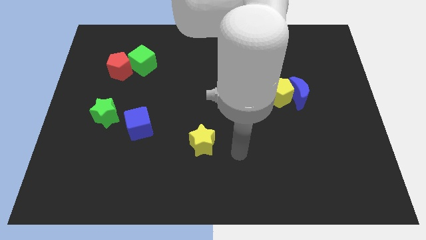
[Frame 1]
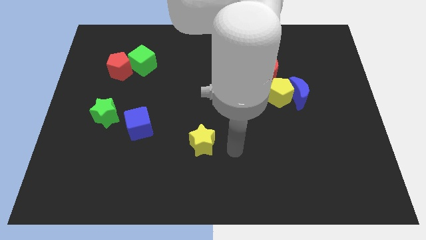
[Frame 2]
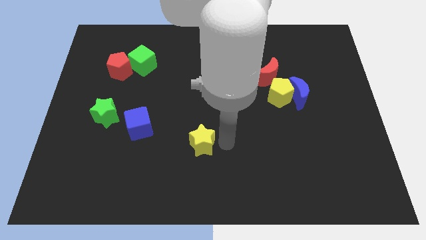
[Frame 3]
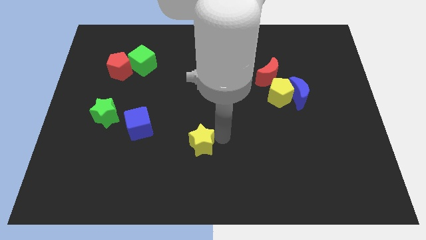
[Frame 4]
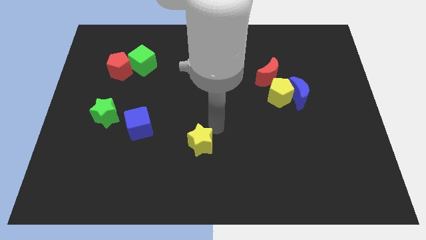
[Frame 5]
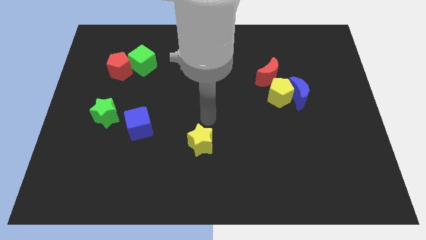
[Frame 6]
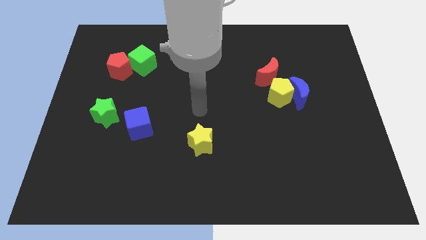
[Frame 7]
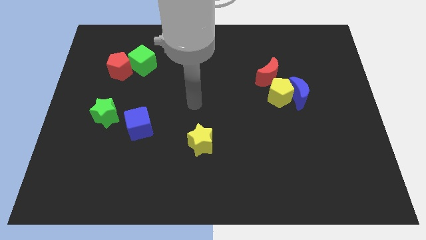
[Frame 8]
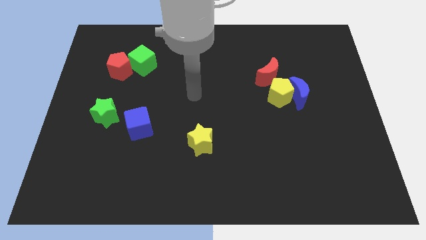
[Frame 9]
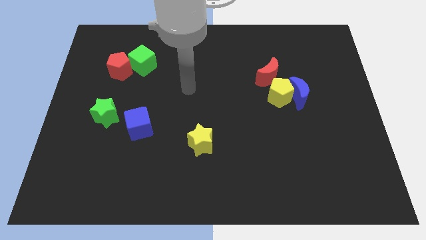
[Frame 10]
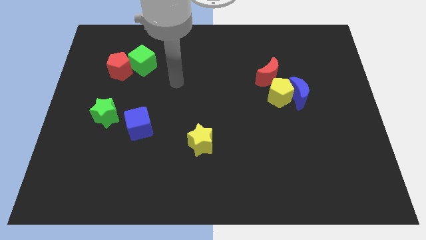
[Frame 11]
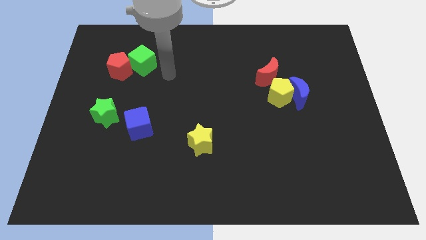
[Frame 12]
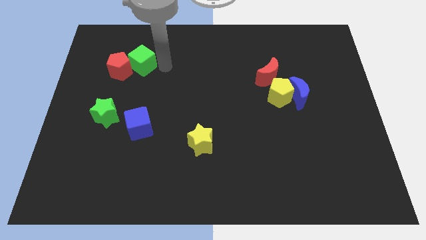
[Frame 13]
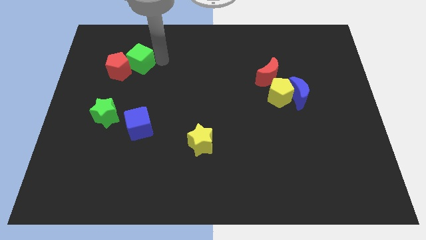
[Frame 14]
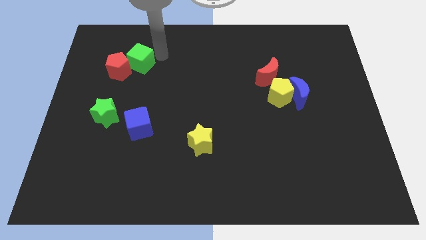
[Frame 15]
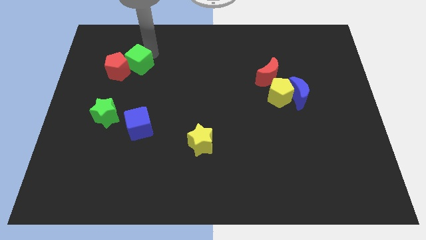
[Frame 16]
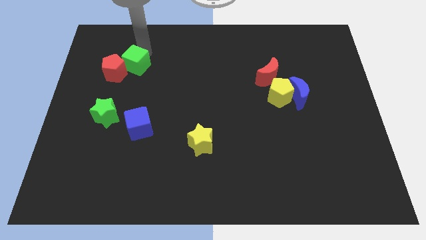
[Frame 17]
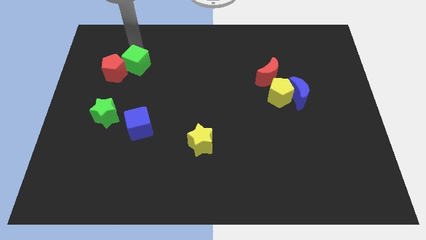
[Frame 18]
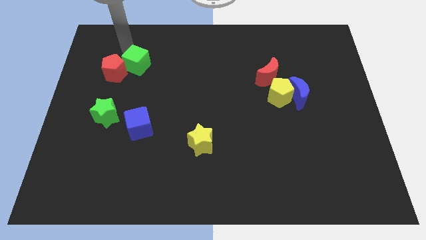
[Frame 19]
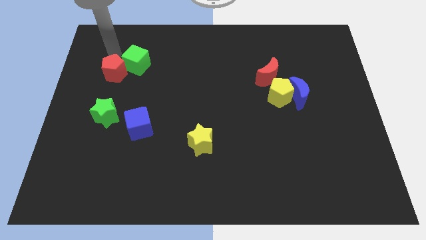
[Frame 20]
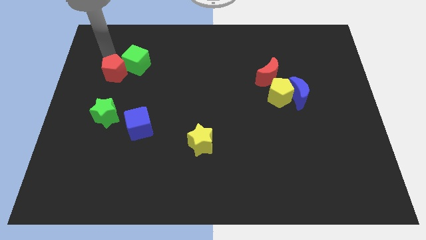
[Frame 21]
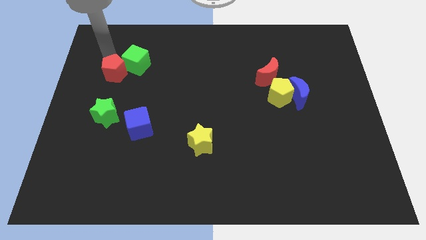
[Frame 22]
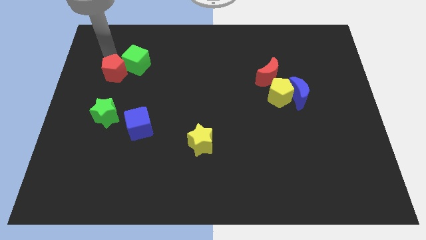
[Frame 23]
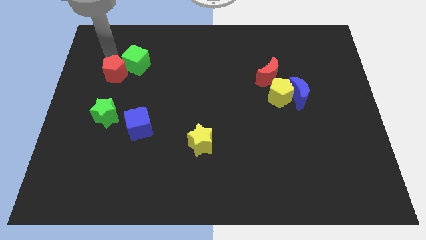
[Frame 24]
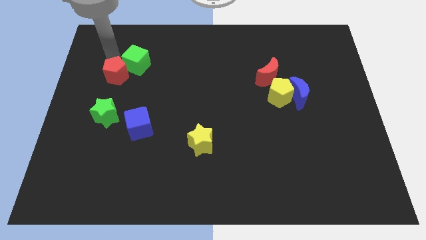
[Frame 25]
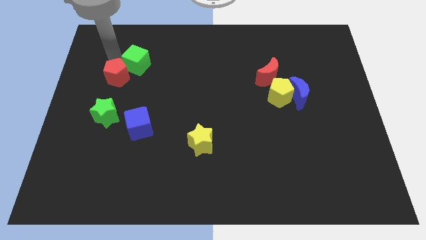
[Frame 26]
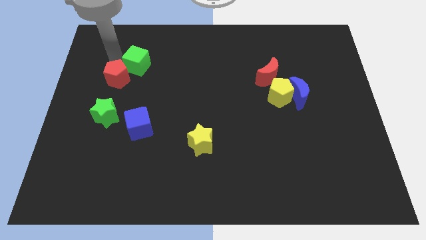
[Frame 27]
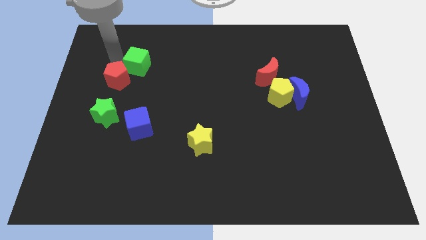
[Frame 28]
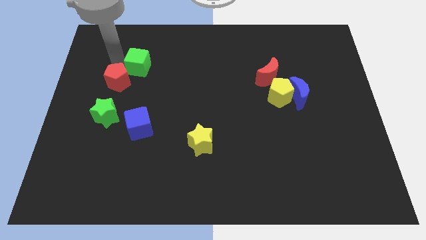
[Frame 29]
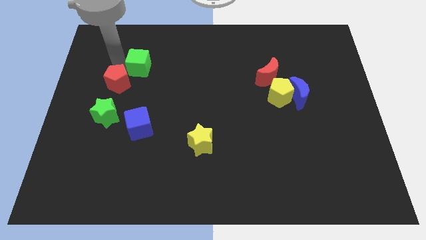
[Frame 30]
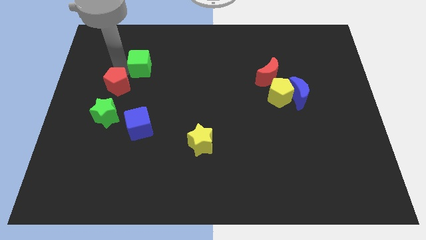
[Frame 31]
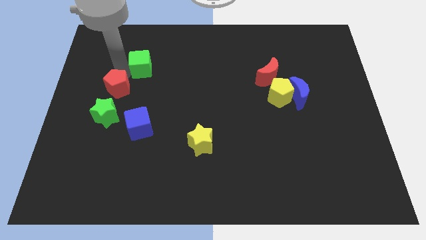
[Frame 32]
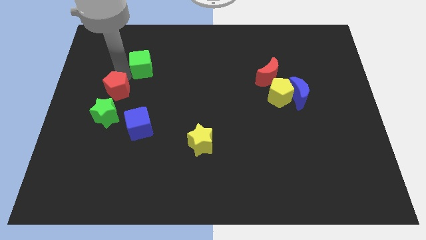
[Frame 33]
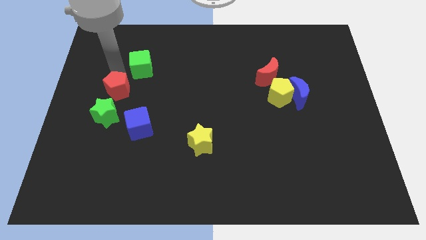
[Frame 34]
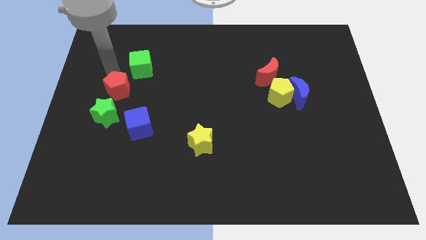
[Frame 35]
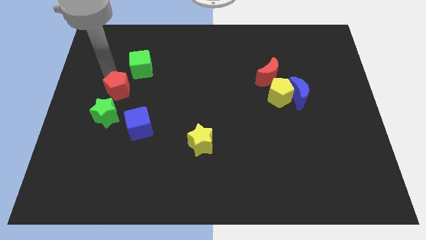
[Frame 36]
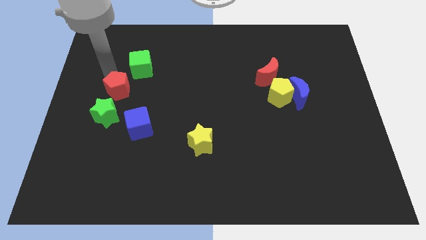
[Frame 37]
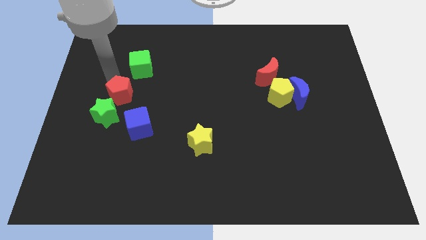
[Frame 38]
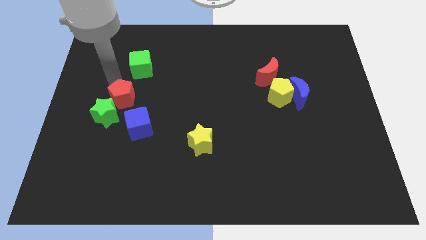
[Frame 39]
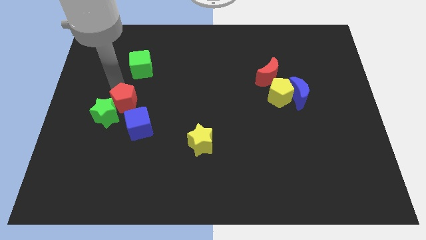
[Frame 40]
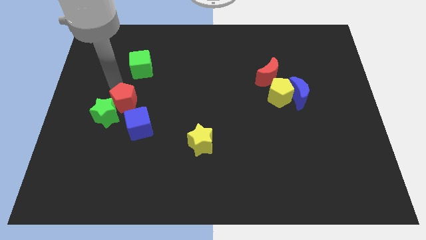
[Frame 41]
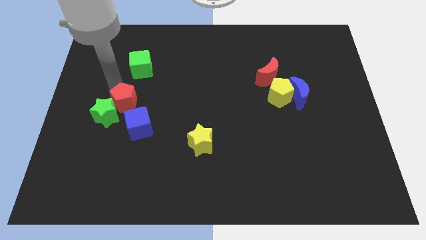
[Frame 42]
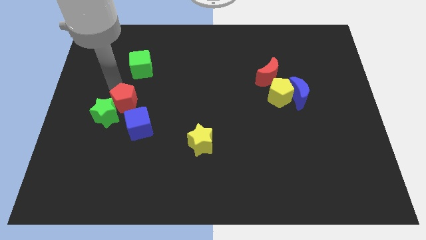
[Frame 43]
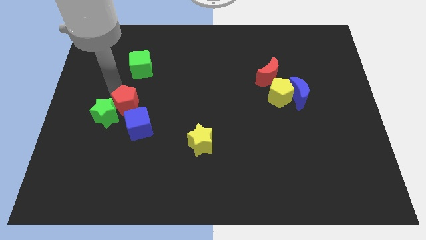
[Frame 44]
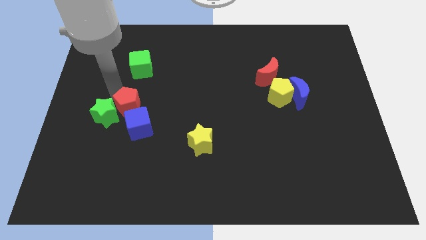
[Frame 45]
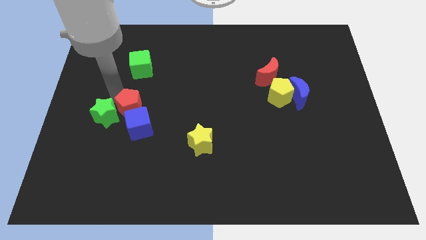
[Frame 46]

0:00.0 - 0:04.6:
move the red pentagon to the blue cube

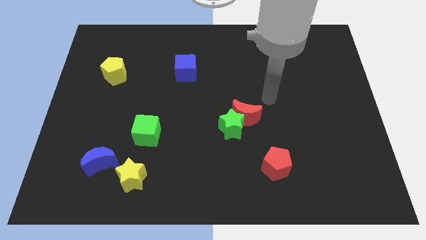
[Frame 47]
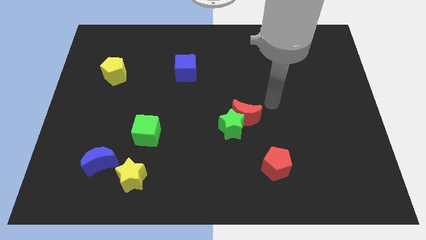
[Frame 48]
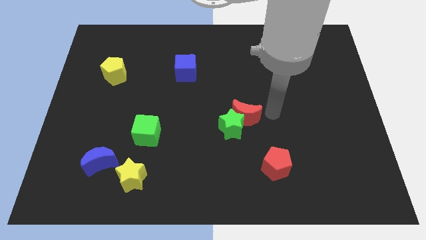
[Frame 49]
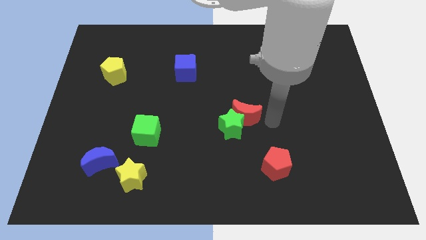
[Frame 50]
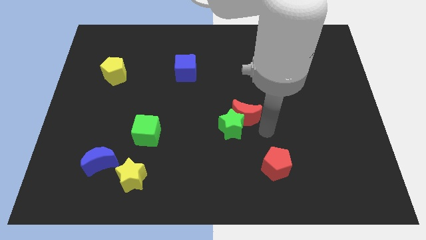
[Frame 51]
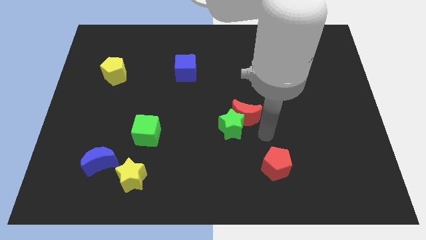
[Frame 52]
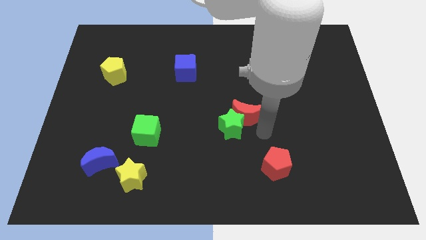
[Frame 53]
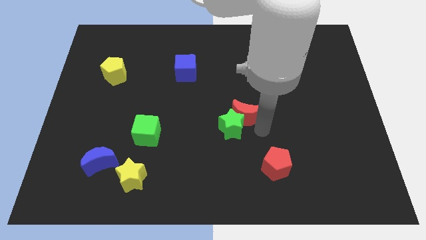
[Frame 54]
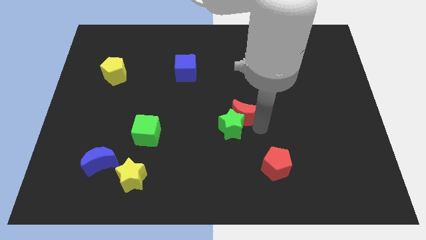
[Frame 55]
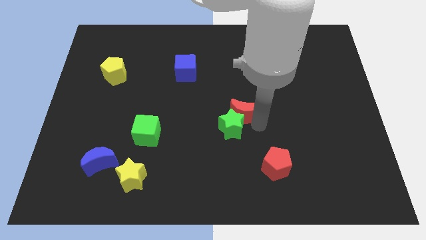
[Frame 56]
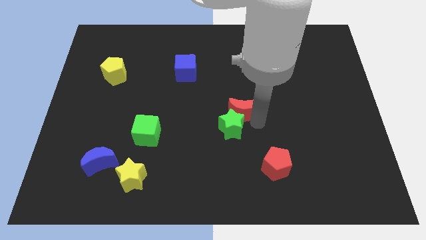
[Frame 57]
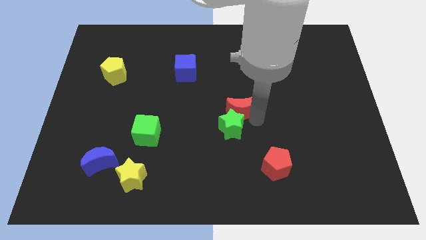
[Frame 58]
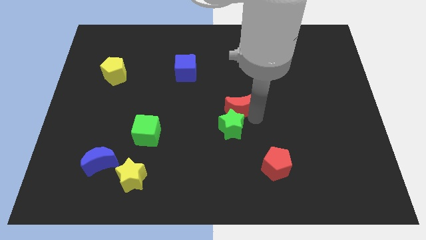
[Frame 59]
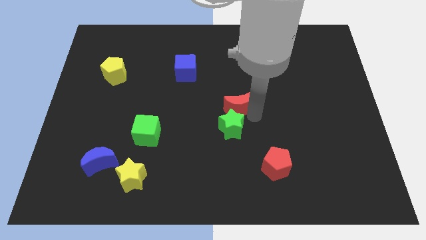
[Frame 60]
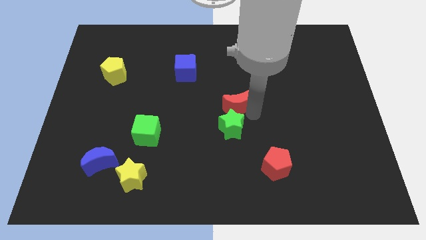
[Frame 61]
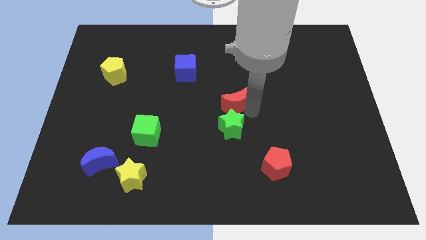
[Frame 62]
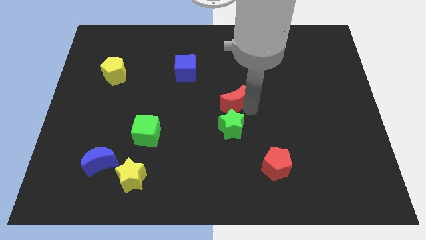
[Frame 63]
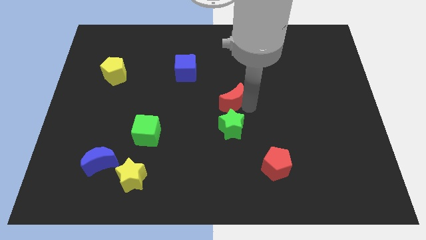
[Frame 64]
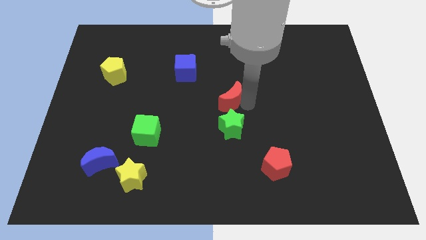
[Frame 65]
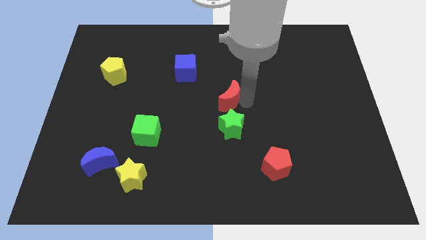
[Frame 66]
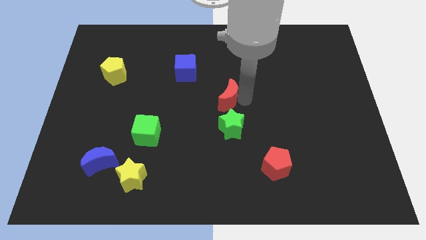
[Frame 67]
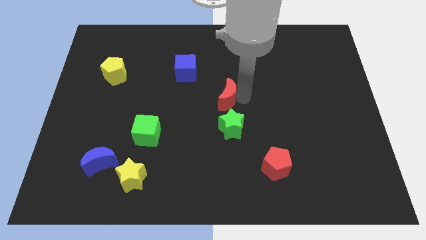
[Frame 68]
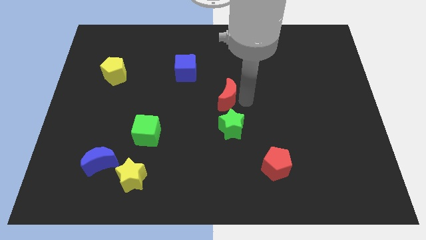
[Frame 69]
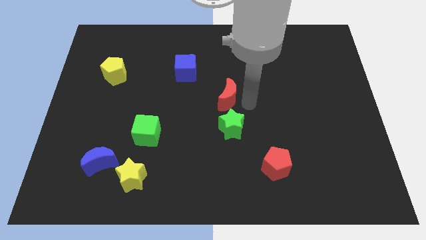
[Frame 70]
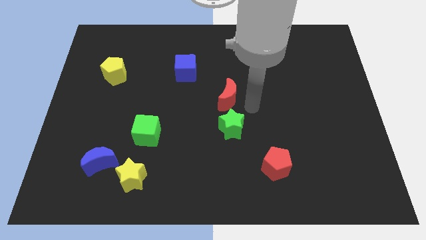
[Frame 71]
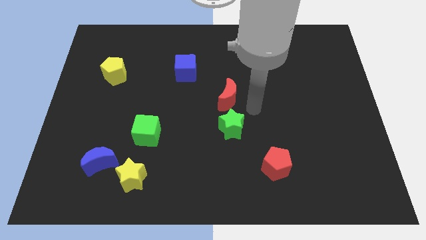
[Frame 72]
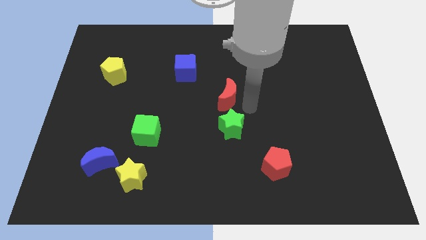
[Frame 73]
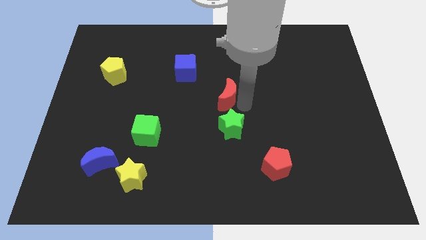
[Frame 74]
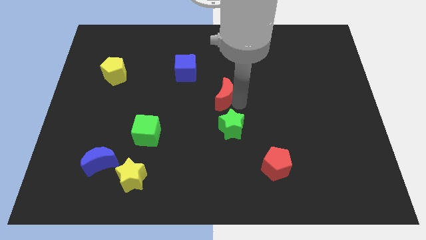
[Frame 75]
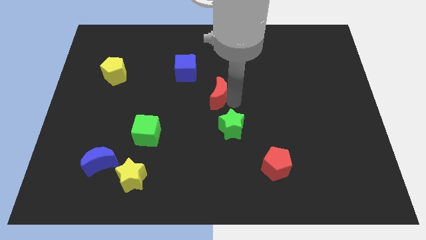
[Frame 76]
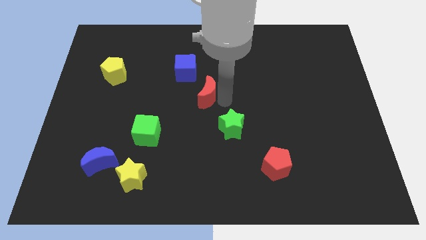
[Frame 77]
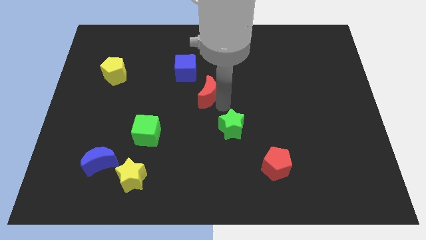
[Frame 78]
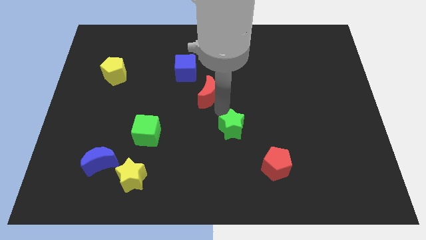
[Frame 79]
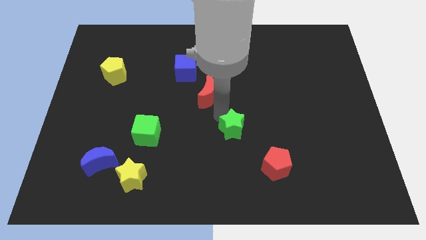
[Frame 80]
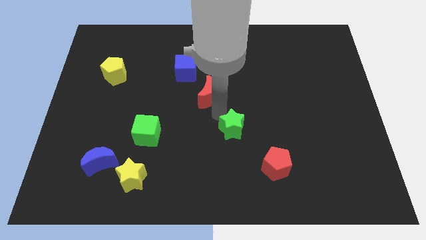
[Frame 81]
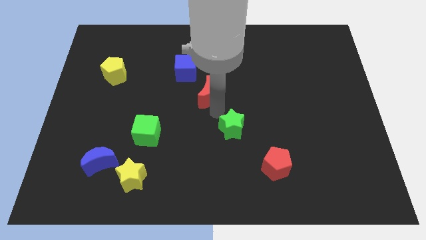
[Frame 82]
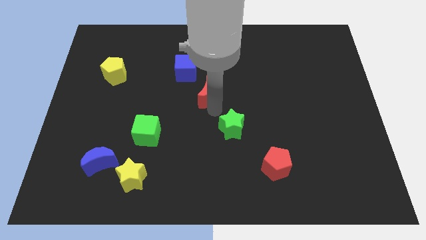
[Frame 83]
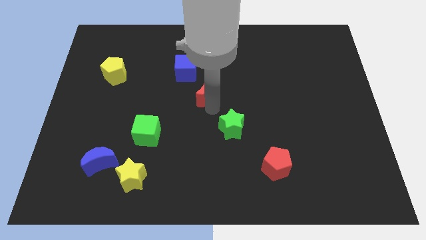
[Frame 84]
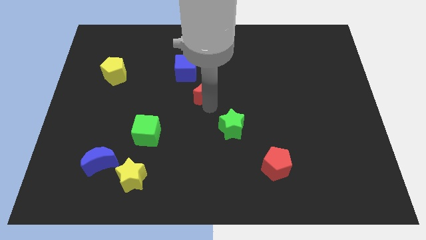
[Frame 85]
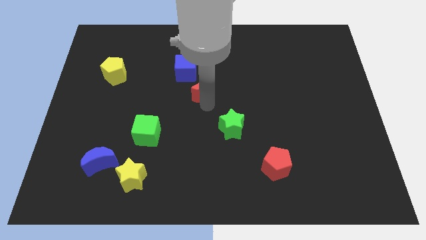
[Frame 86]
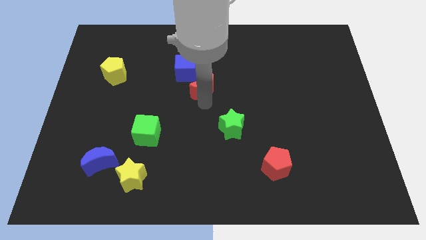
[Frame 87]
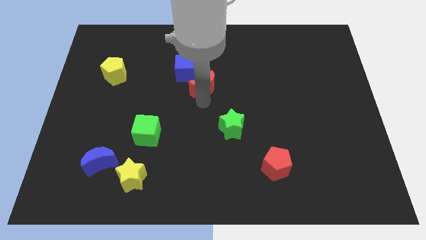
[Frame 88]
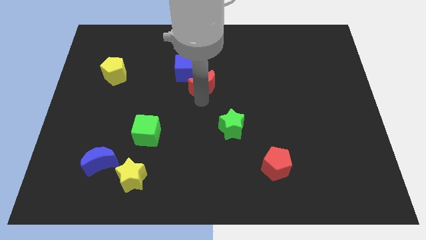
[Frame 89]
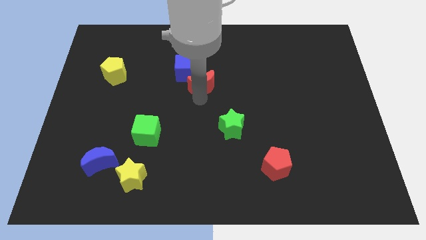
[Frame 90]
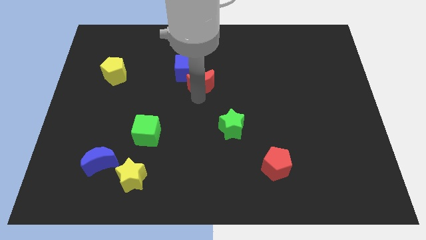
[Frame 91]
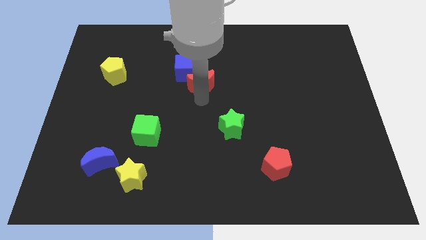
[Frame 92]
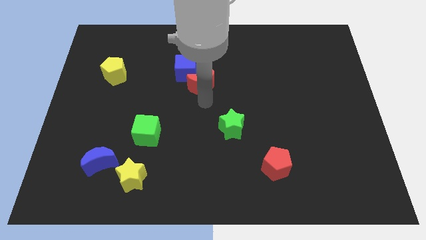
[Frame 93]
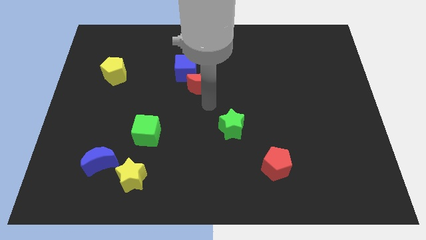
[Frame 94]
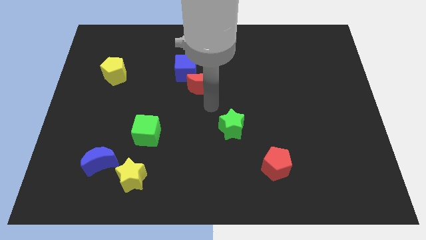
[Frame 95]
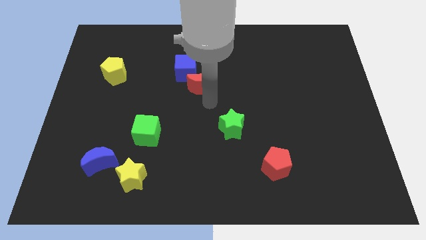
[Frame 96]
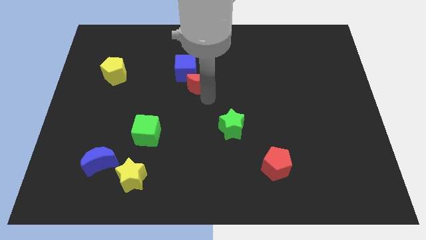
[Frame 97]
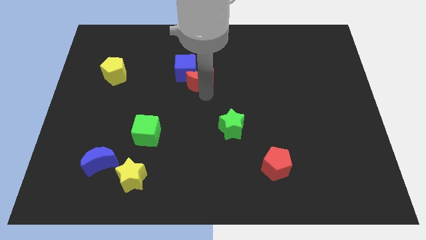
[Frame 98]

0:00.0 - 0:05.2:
move the red moon towards the blue cube
